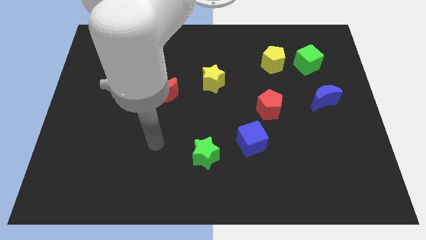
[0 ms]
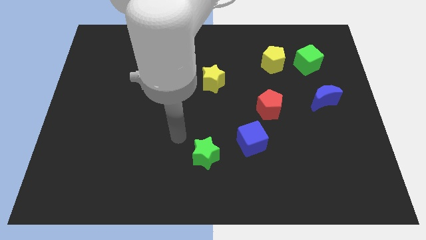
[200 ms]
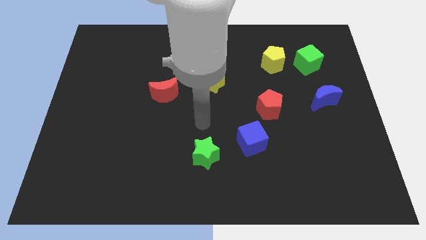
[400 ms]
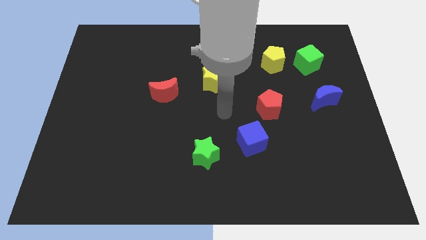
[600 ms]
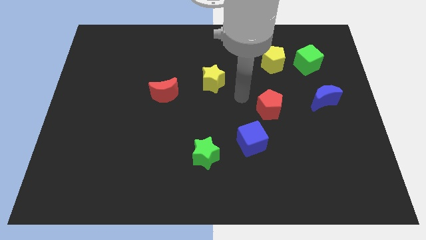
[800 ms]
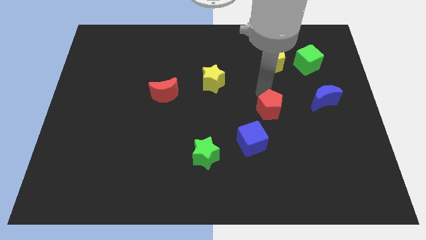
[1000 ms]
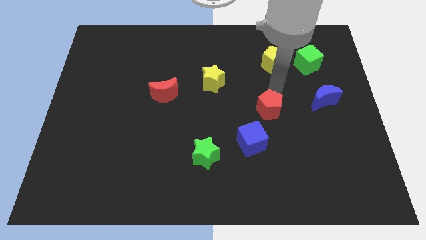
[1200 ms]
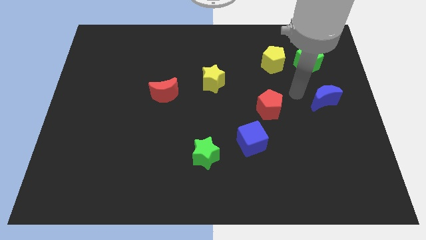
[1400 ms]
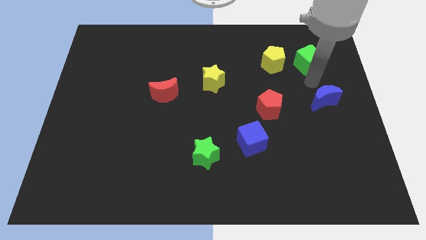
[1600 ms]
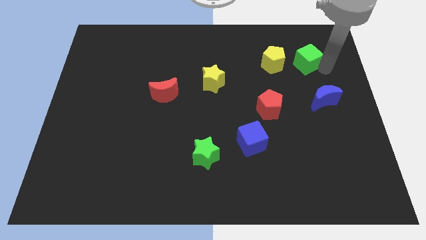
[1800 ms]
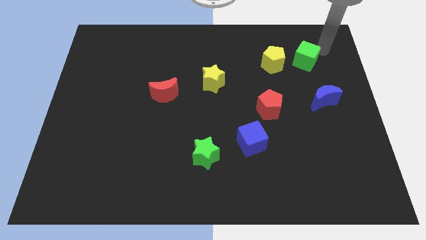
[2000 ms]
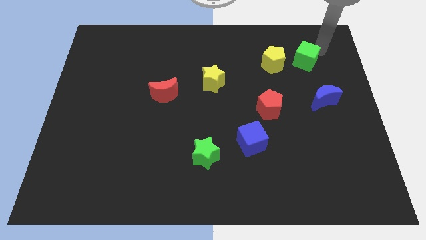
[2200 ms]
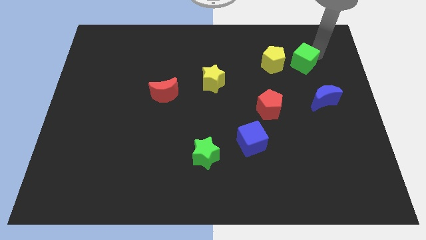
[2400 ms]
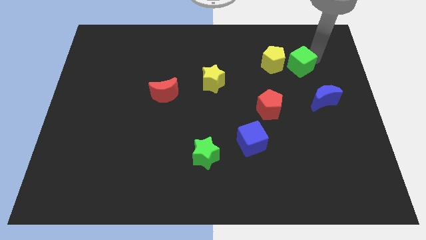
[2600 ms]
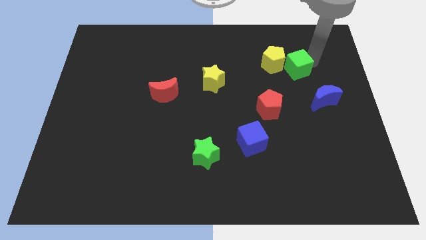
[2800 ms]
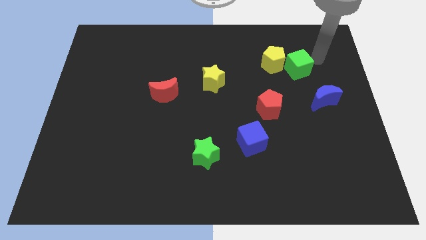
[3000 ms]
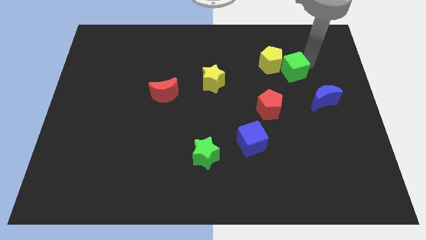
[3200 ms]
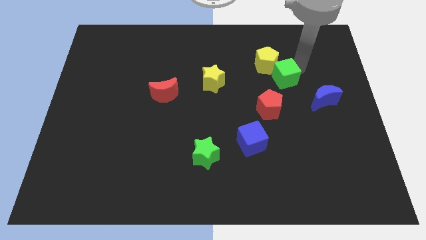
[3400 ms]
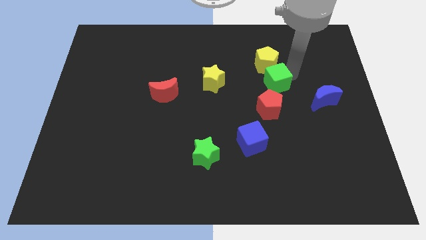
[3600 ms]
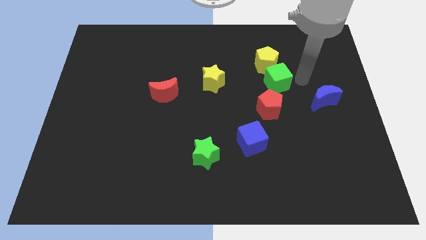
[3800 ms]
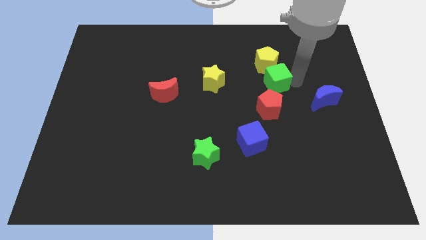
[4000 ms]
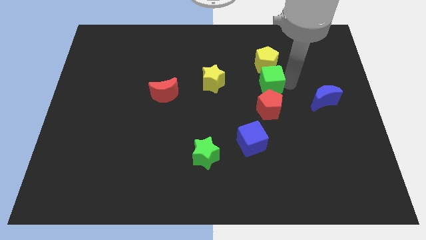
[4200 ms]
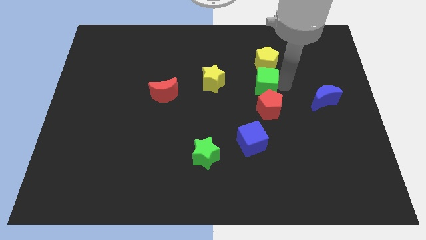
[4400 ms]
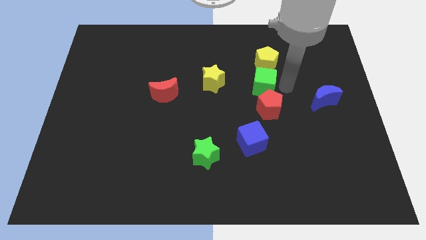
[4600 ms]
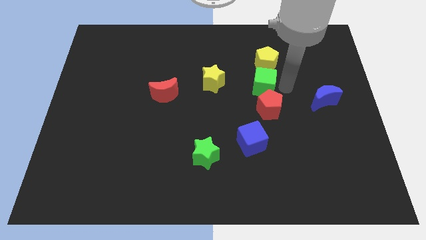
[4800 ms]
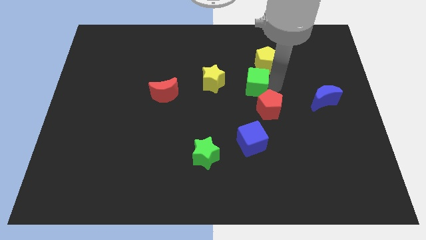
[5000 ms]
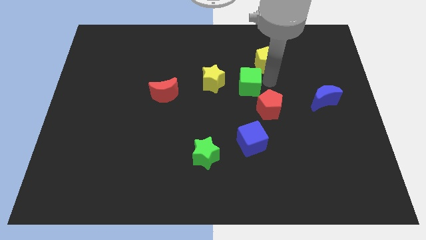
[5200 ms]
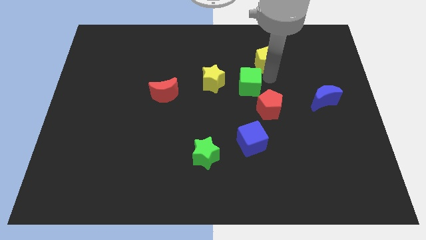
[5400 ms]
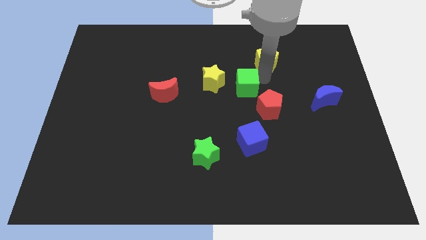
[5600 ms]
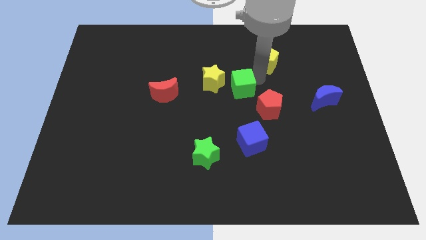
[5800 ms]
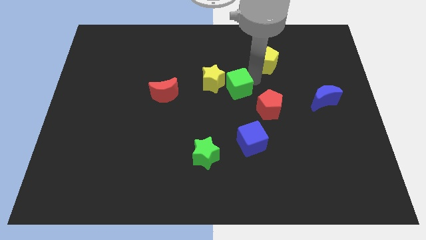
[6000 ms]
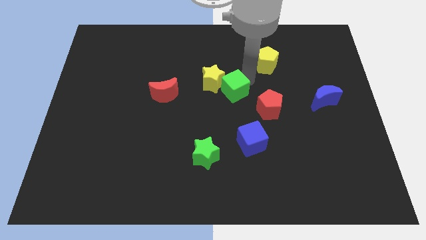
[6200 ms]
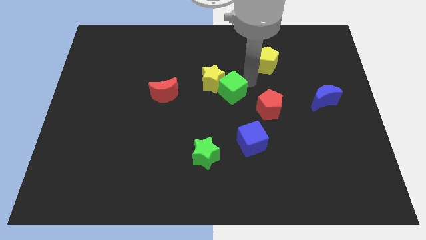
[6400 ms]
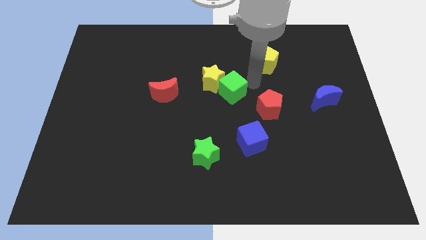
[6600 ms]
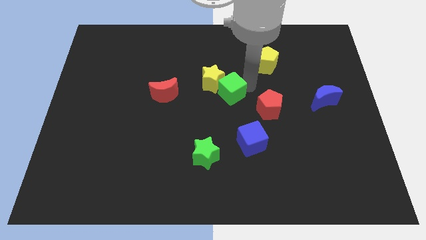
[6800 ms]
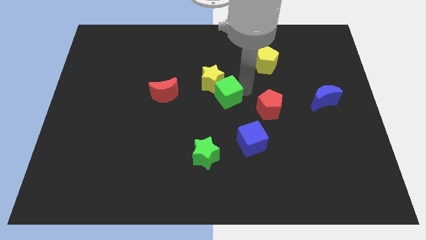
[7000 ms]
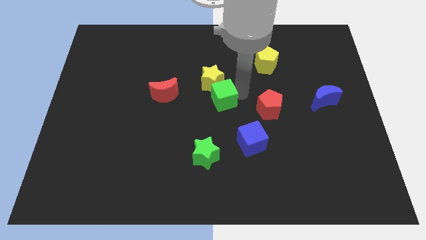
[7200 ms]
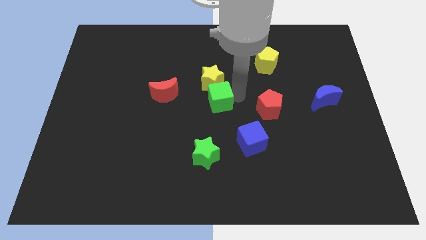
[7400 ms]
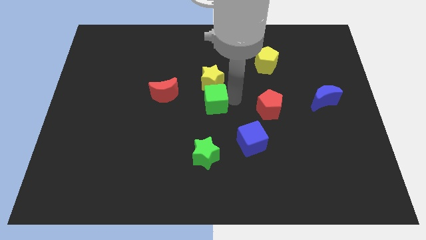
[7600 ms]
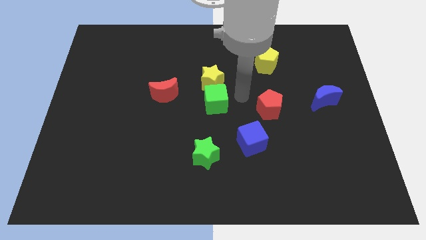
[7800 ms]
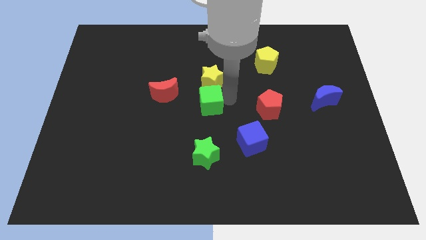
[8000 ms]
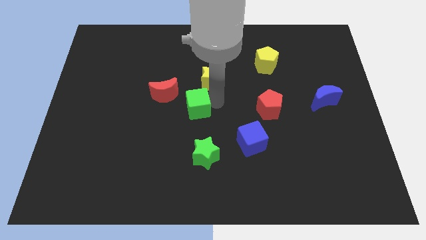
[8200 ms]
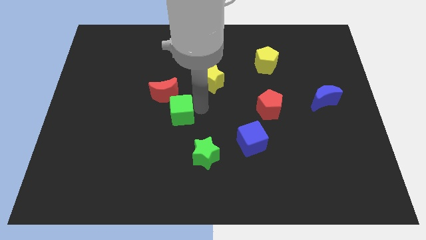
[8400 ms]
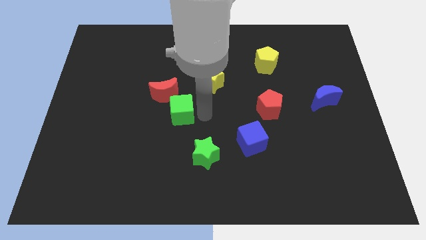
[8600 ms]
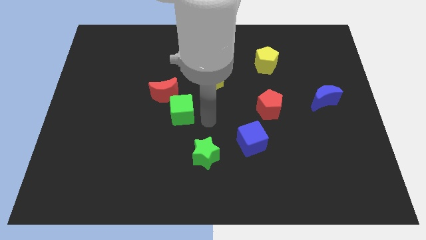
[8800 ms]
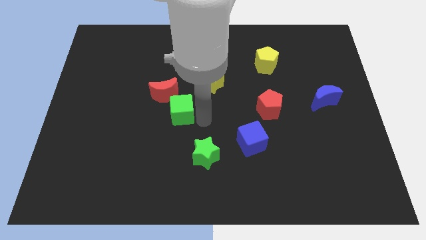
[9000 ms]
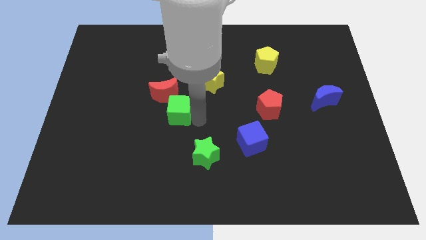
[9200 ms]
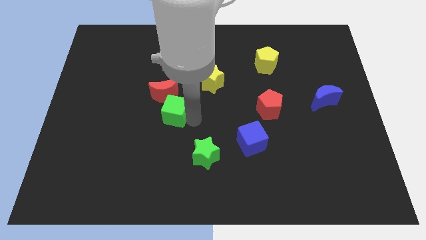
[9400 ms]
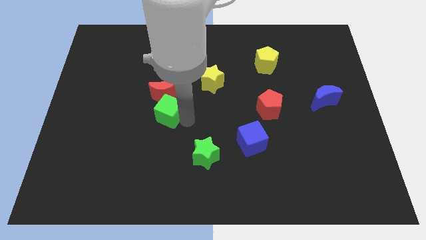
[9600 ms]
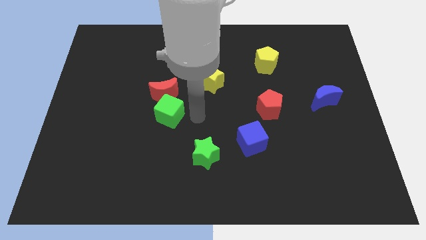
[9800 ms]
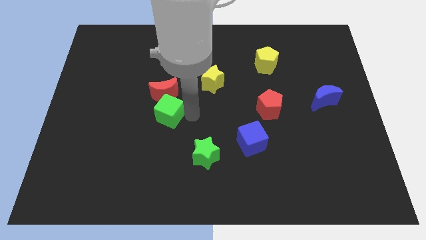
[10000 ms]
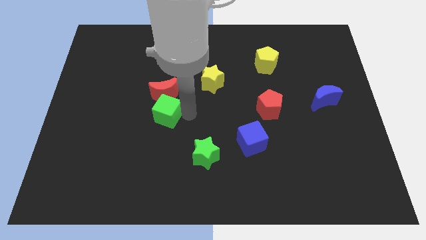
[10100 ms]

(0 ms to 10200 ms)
push the green cube to the bottom left side of the red moon

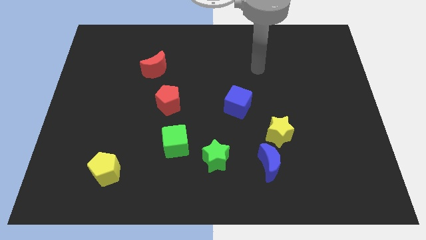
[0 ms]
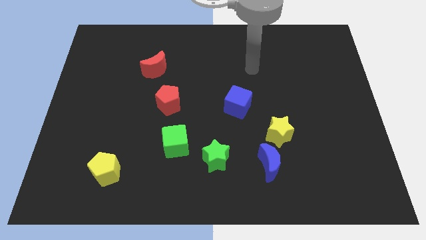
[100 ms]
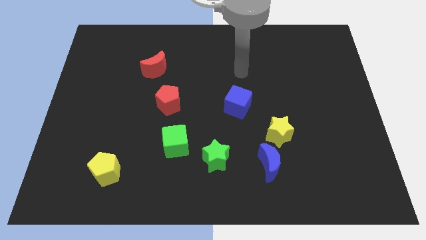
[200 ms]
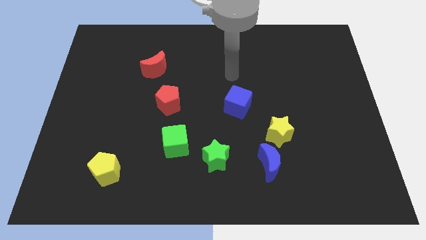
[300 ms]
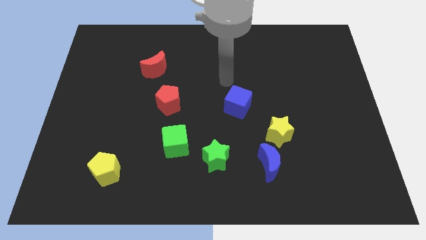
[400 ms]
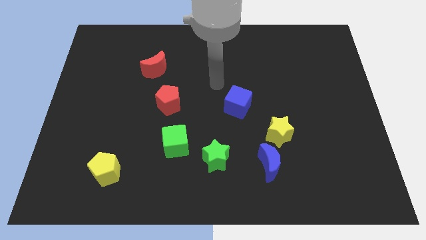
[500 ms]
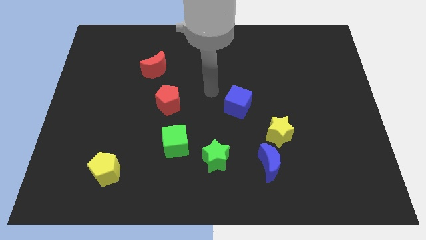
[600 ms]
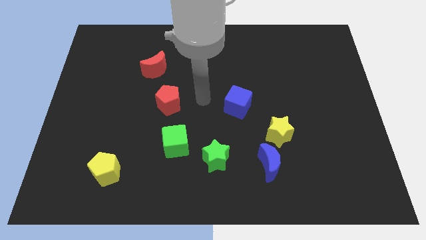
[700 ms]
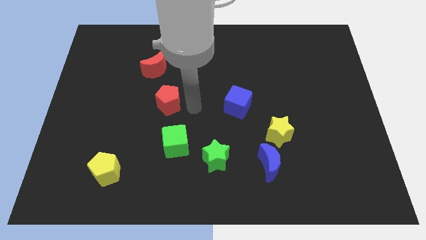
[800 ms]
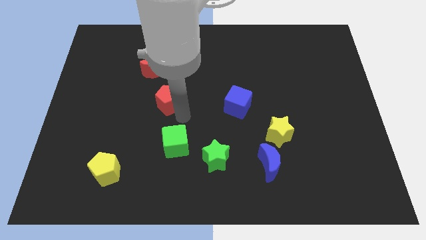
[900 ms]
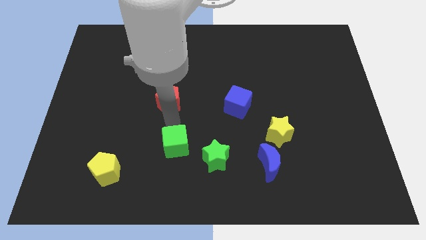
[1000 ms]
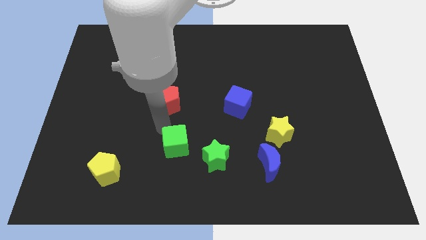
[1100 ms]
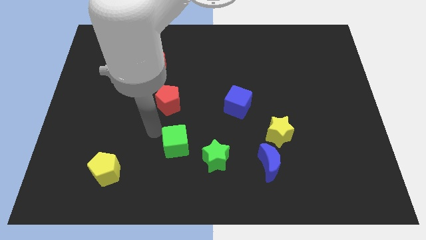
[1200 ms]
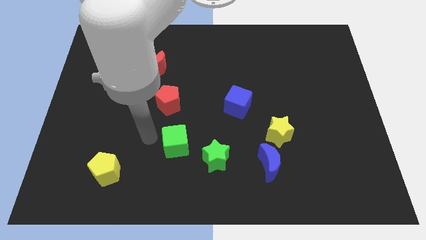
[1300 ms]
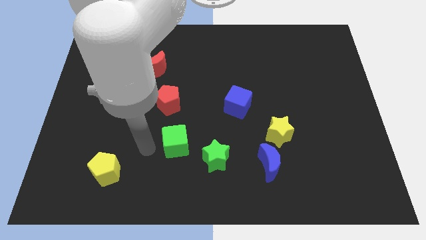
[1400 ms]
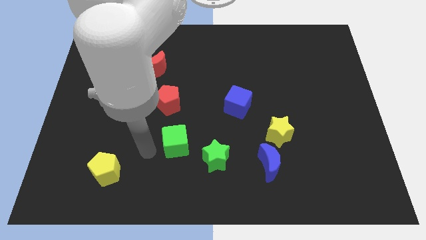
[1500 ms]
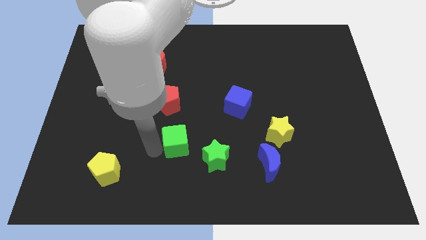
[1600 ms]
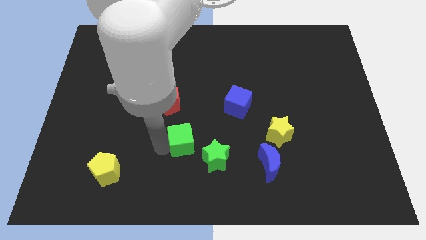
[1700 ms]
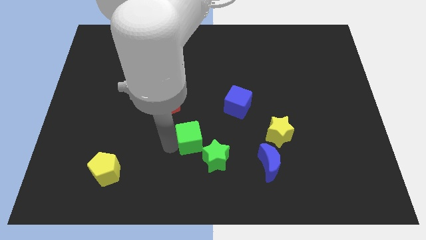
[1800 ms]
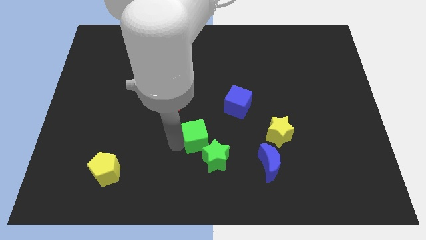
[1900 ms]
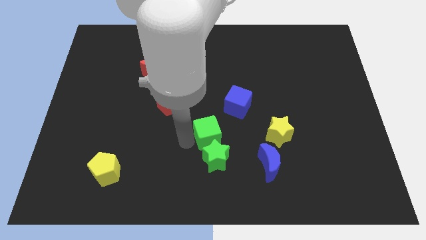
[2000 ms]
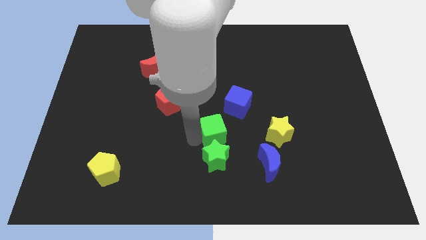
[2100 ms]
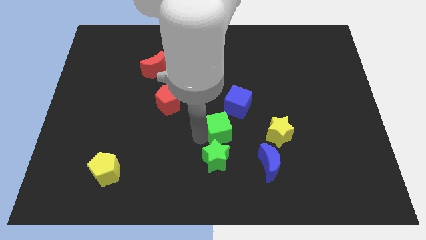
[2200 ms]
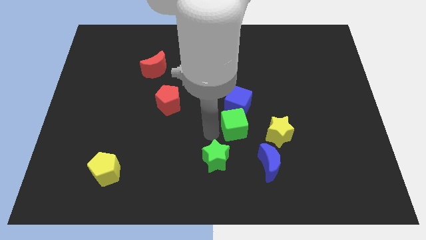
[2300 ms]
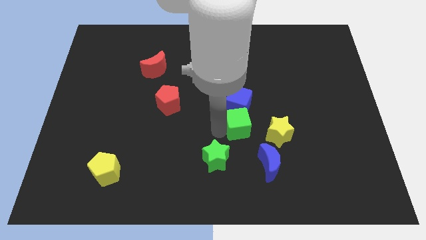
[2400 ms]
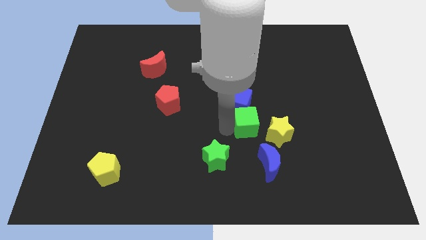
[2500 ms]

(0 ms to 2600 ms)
put the green cube to the top side of the blue moon
